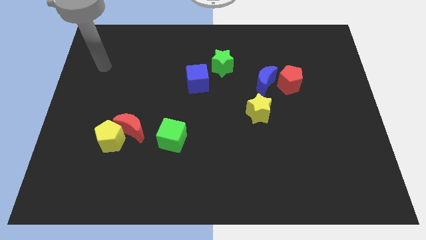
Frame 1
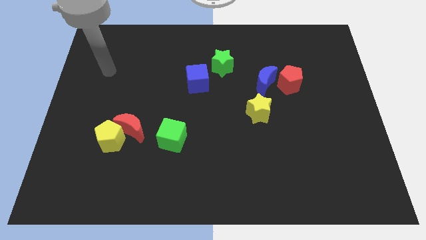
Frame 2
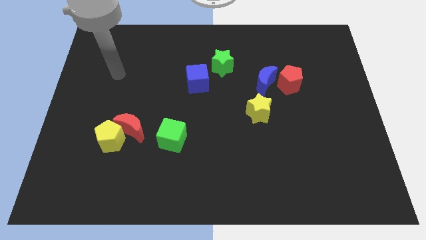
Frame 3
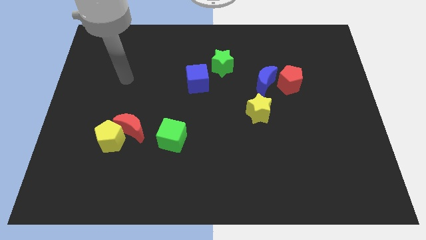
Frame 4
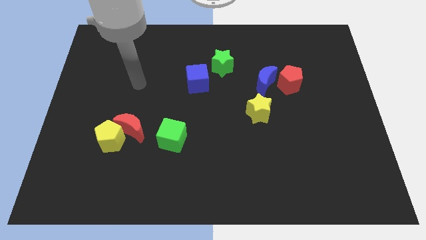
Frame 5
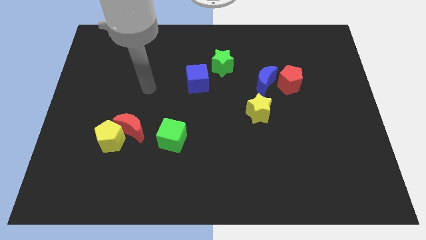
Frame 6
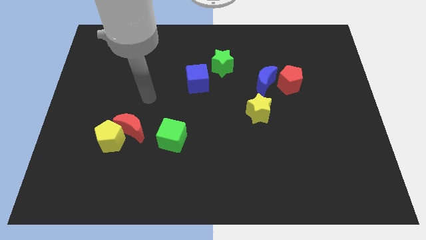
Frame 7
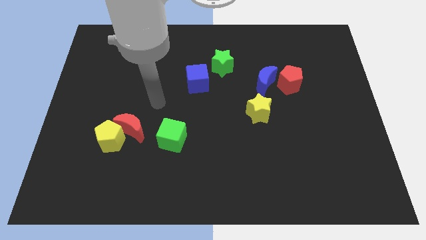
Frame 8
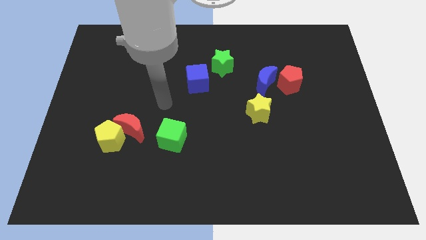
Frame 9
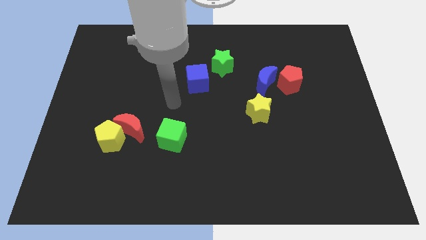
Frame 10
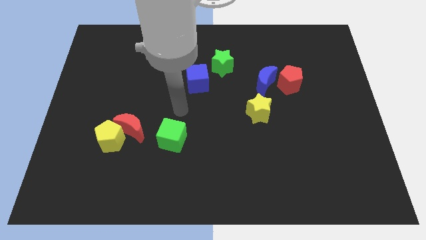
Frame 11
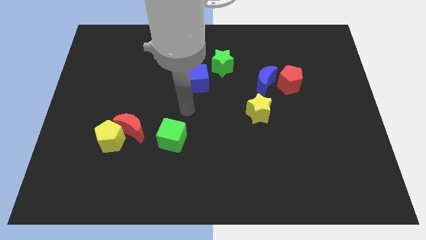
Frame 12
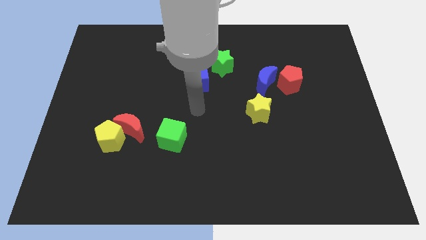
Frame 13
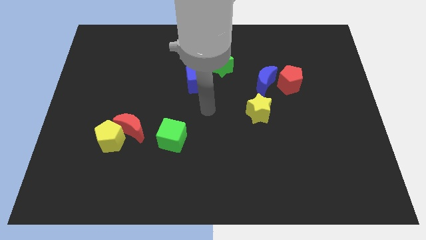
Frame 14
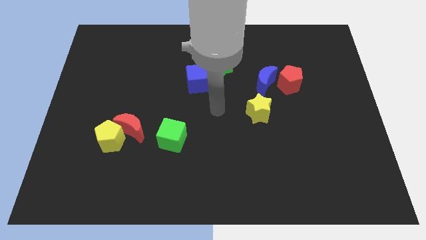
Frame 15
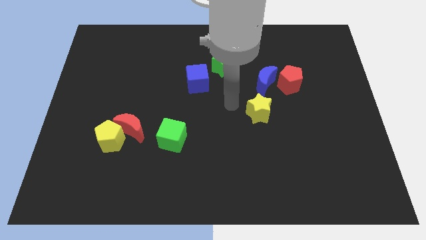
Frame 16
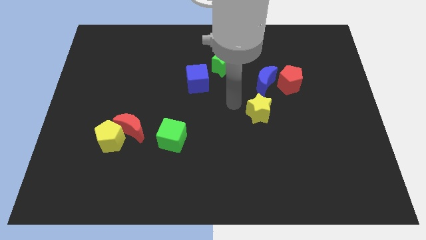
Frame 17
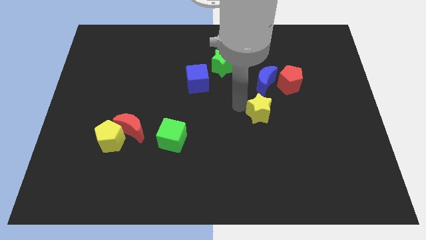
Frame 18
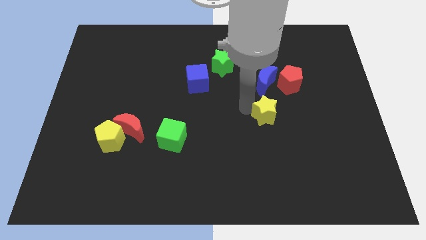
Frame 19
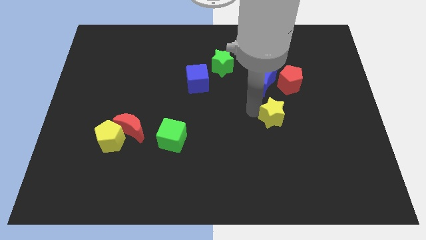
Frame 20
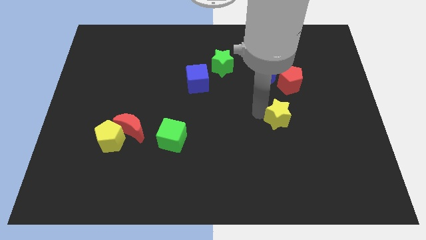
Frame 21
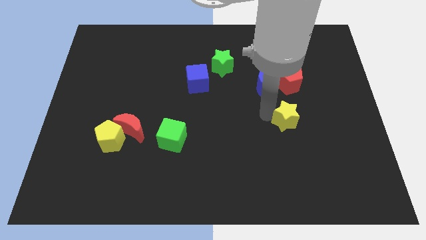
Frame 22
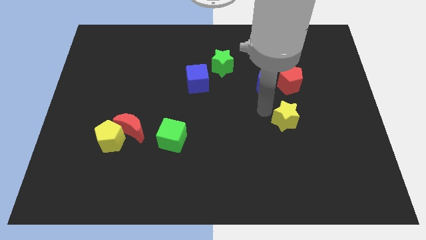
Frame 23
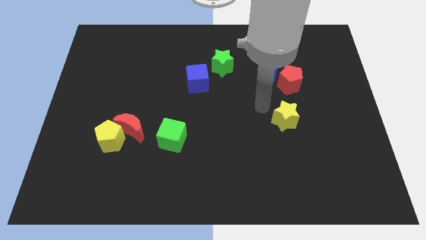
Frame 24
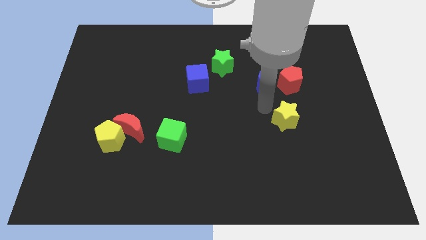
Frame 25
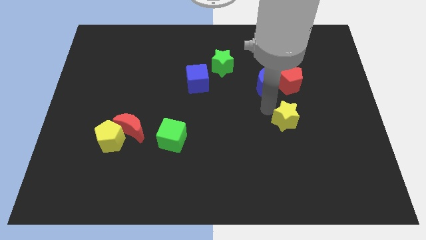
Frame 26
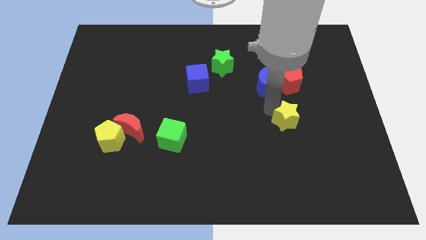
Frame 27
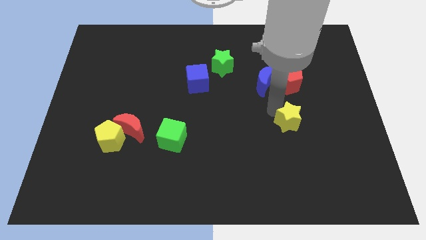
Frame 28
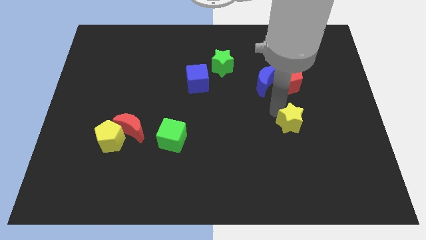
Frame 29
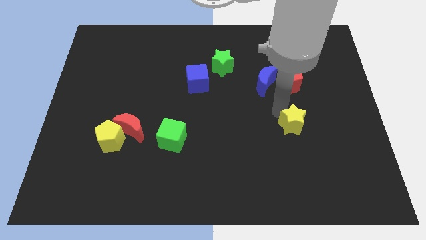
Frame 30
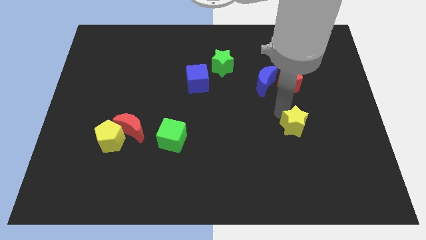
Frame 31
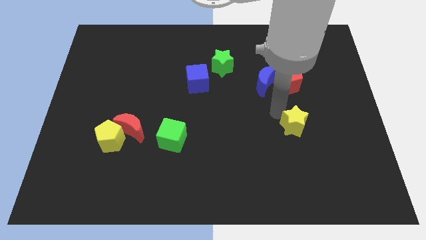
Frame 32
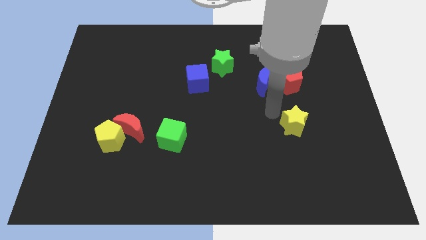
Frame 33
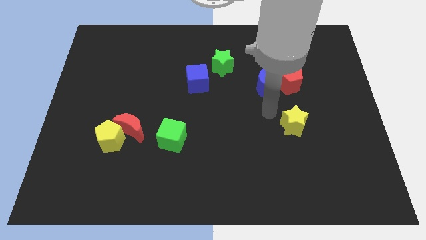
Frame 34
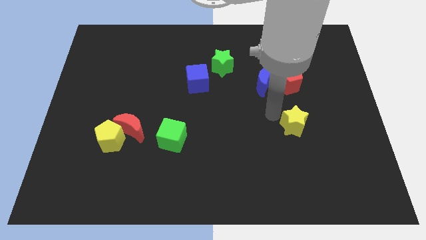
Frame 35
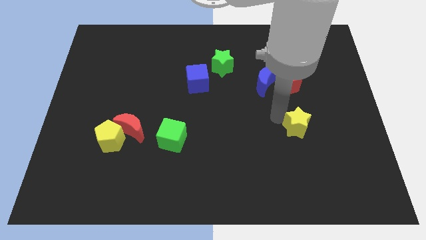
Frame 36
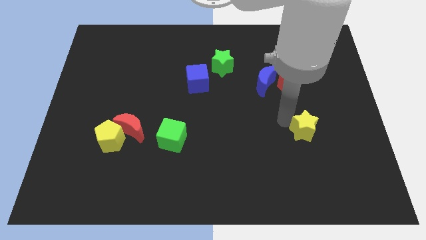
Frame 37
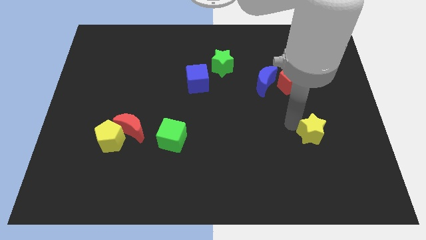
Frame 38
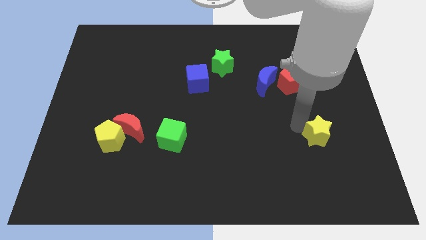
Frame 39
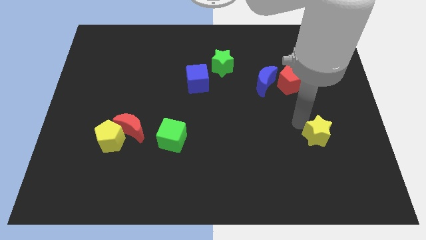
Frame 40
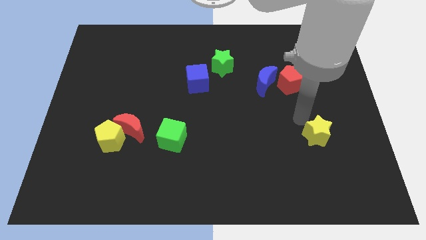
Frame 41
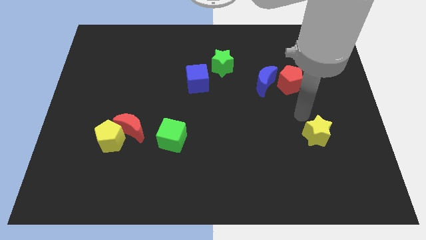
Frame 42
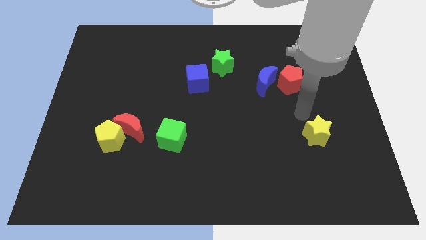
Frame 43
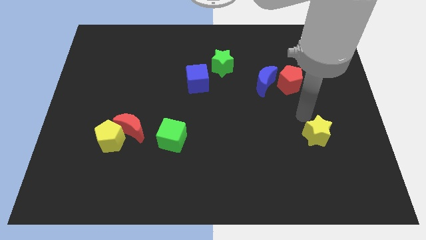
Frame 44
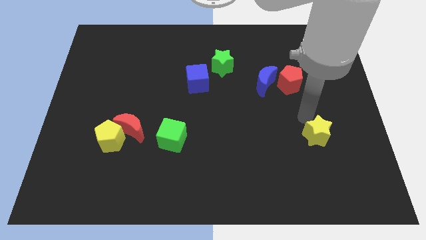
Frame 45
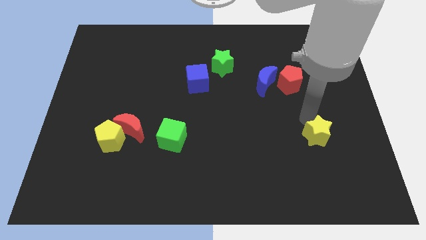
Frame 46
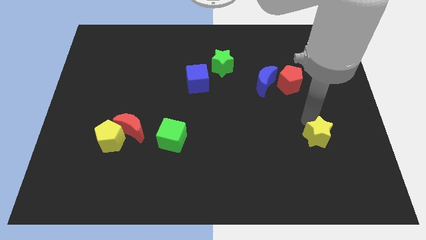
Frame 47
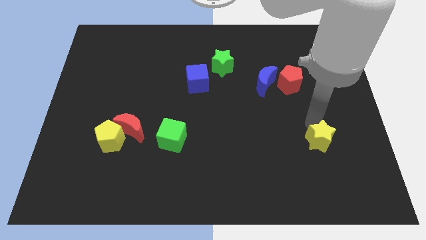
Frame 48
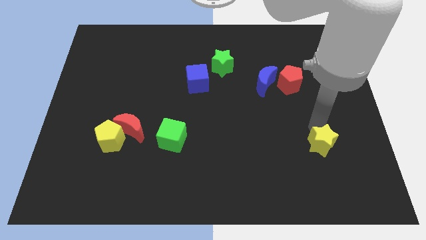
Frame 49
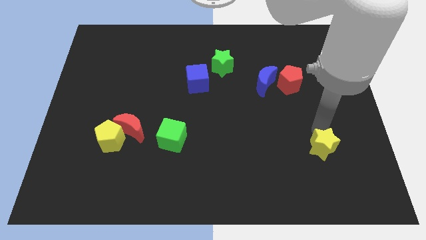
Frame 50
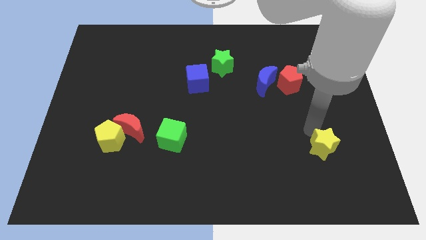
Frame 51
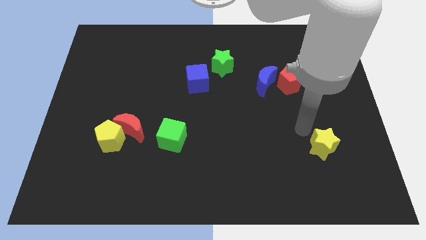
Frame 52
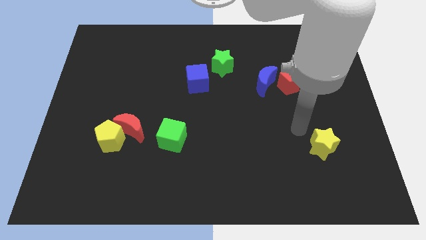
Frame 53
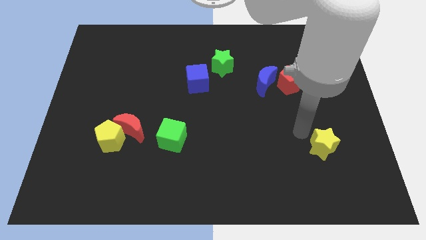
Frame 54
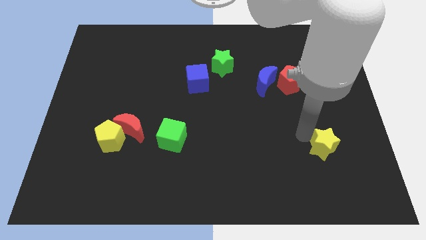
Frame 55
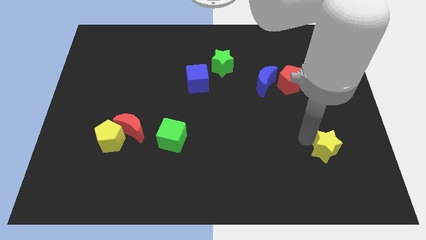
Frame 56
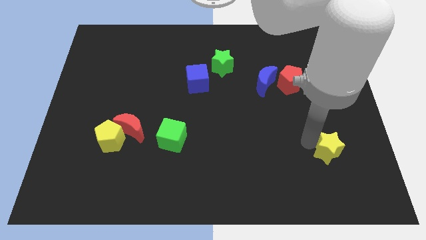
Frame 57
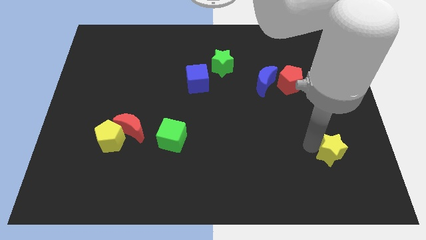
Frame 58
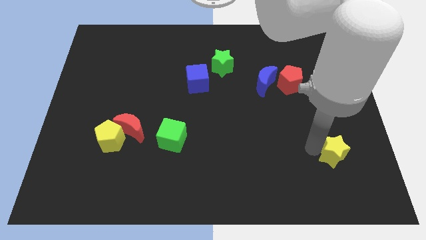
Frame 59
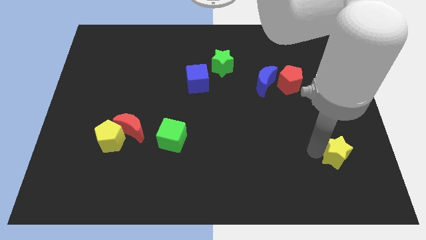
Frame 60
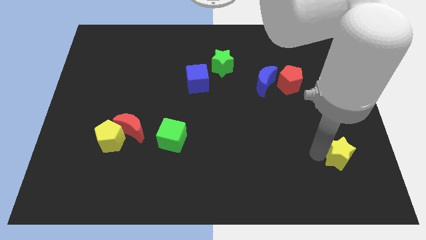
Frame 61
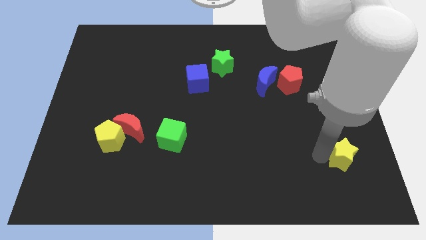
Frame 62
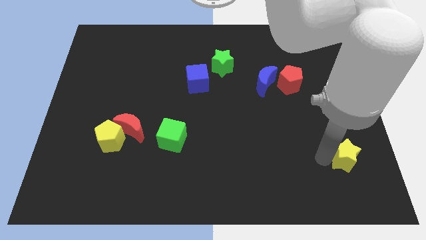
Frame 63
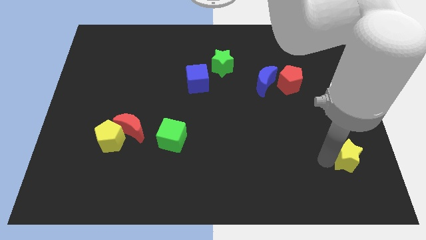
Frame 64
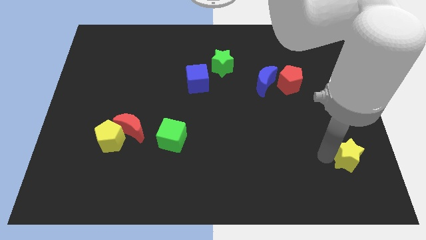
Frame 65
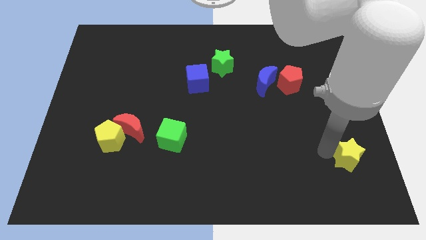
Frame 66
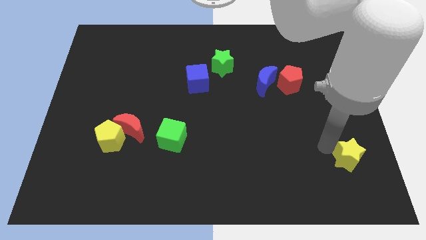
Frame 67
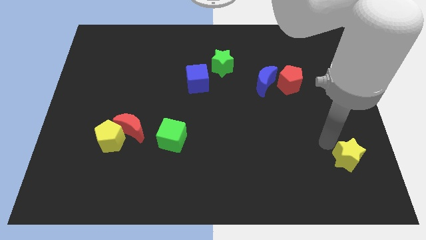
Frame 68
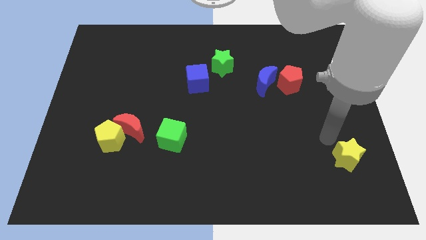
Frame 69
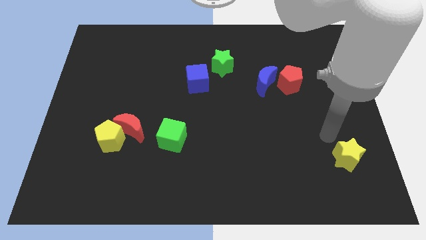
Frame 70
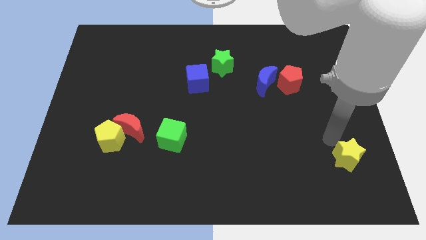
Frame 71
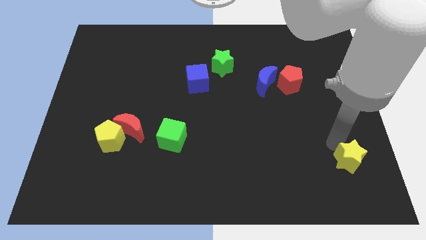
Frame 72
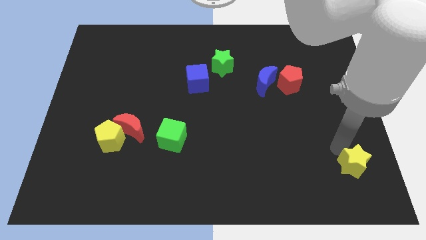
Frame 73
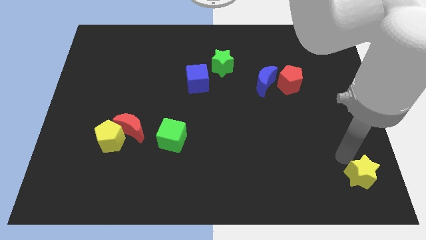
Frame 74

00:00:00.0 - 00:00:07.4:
slide the yellow star to the bottom right corner
